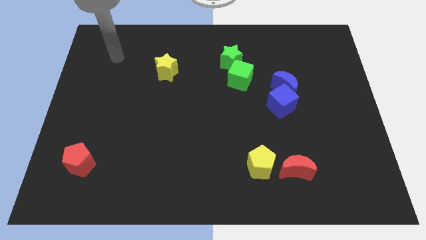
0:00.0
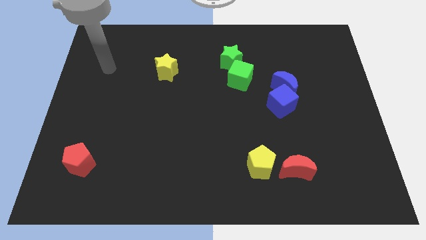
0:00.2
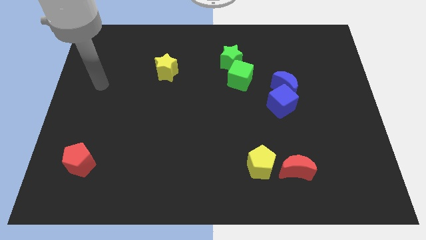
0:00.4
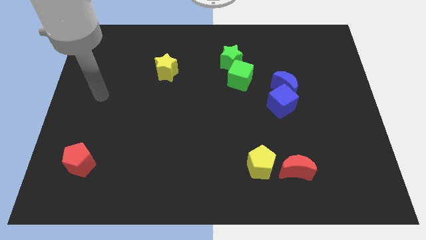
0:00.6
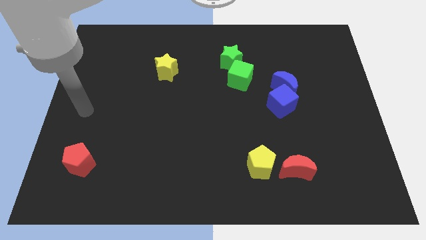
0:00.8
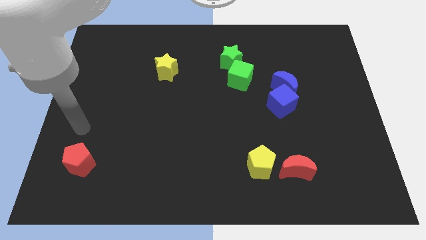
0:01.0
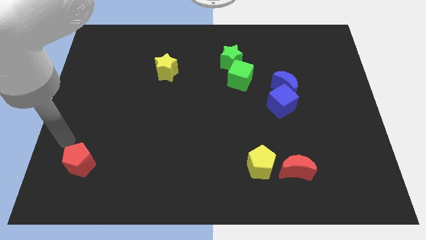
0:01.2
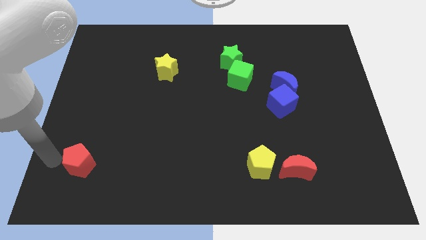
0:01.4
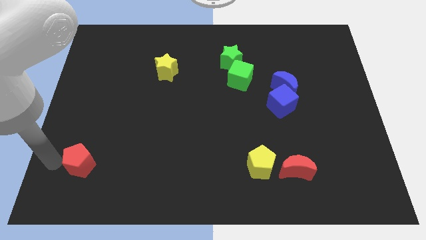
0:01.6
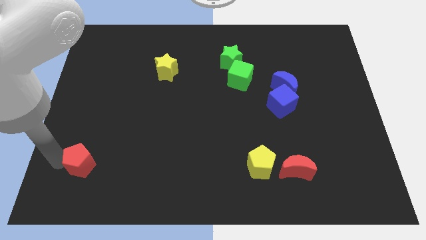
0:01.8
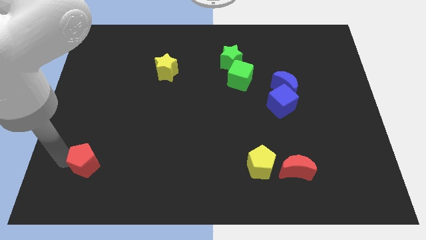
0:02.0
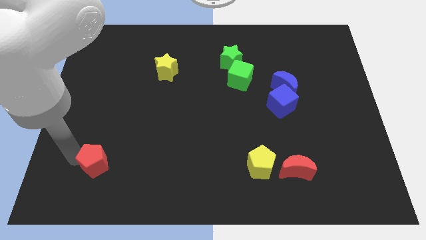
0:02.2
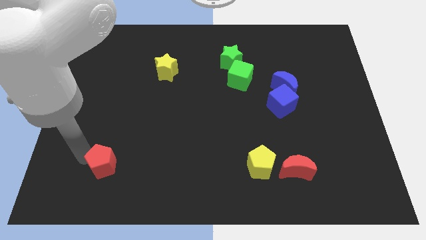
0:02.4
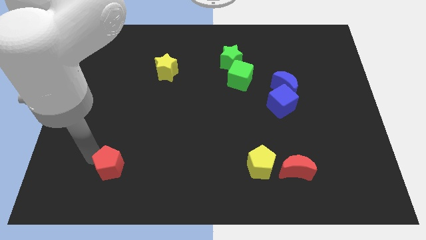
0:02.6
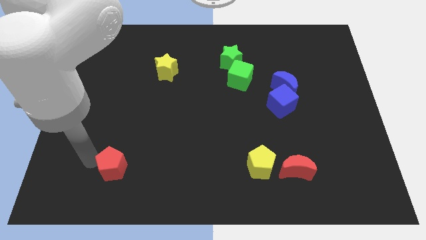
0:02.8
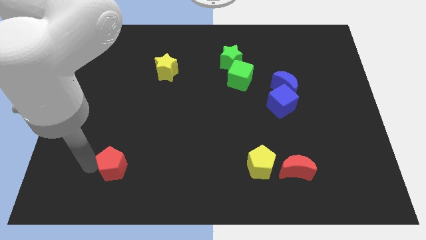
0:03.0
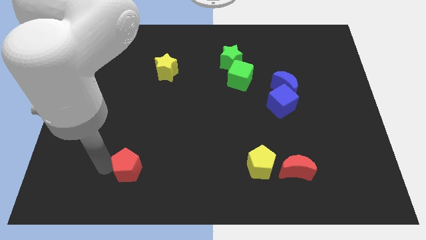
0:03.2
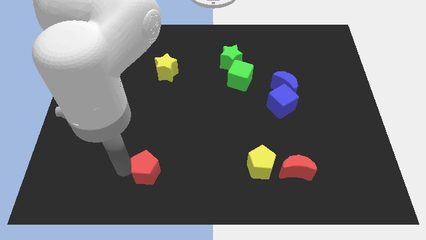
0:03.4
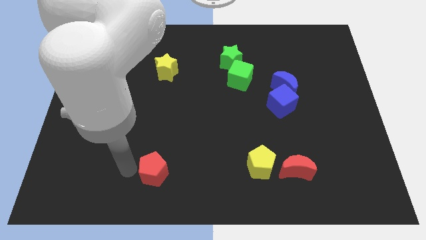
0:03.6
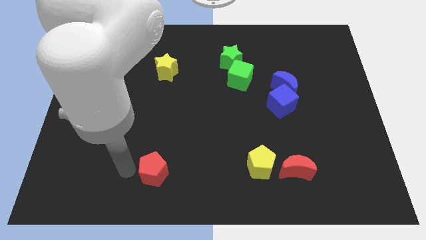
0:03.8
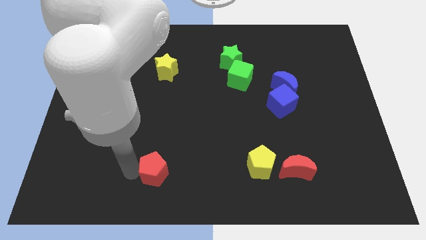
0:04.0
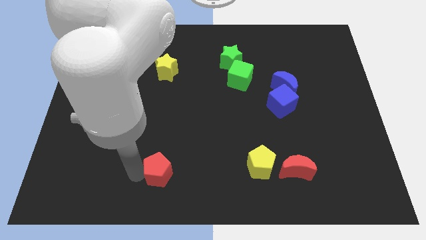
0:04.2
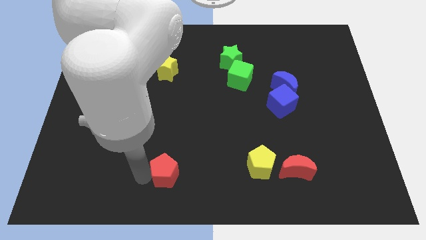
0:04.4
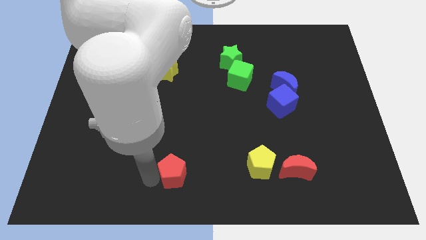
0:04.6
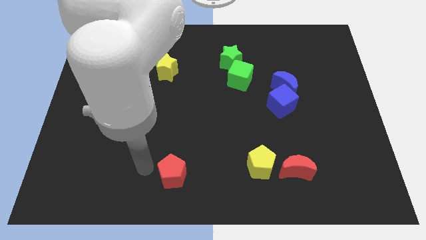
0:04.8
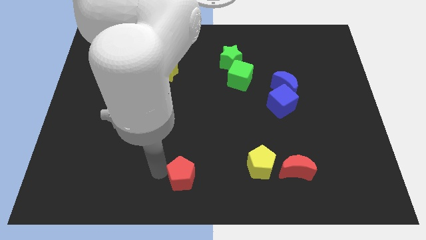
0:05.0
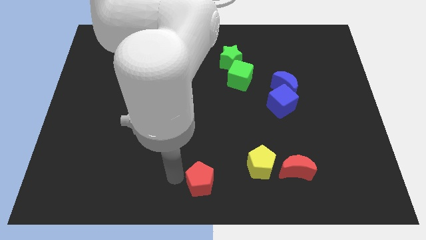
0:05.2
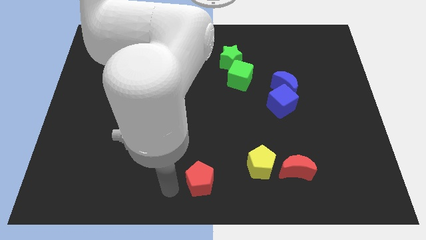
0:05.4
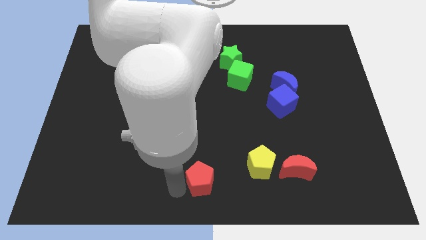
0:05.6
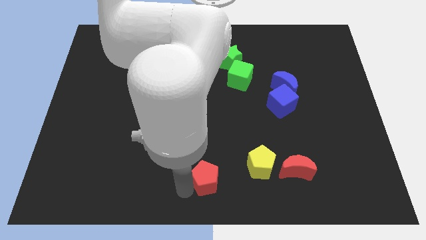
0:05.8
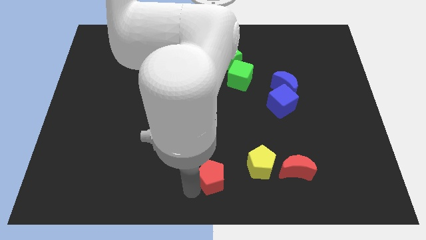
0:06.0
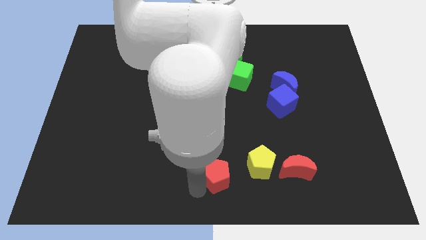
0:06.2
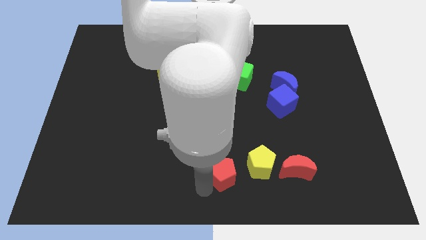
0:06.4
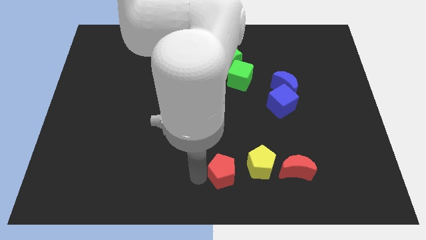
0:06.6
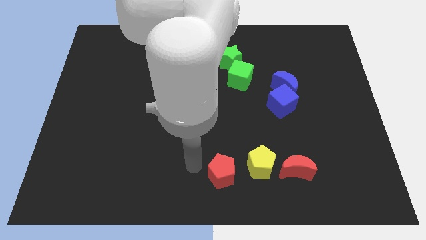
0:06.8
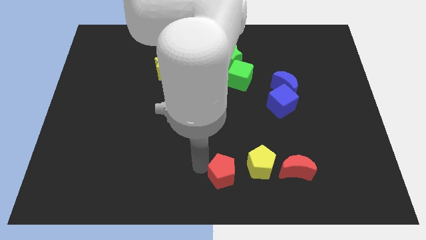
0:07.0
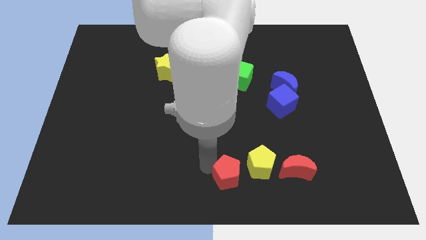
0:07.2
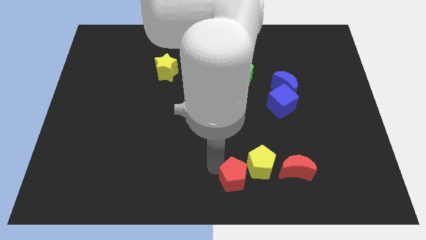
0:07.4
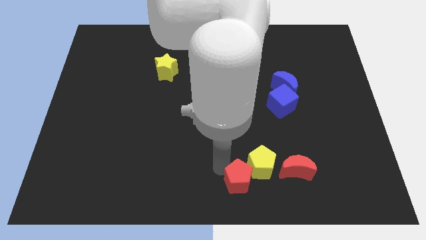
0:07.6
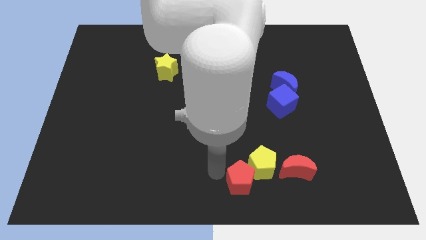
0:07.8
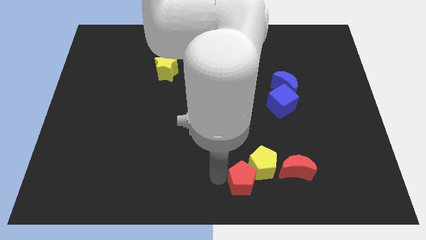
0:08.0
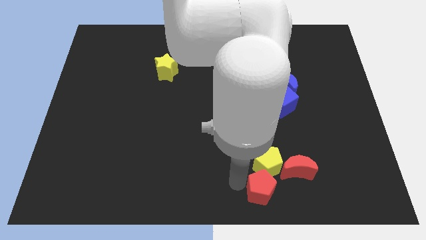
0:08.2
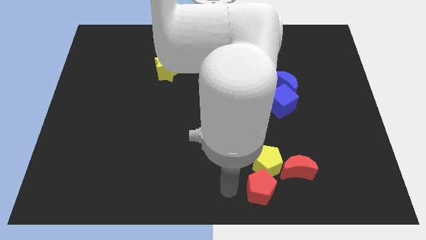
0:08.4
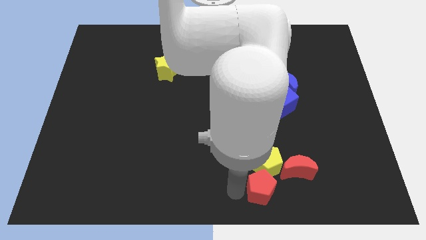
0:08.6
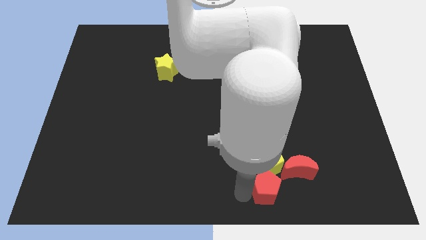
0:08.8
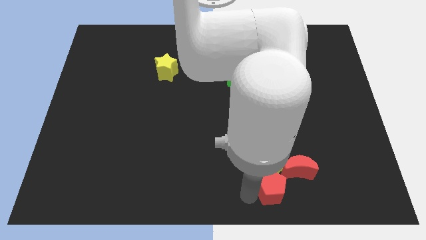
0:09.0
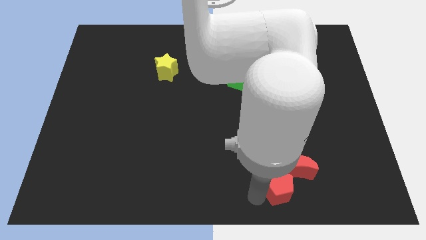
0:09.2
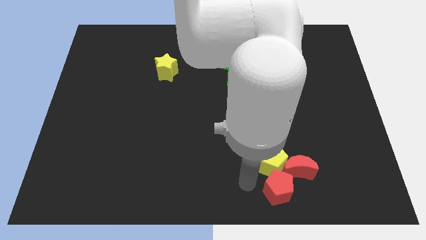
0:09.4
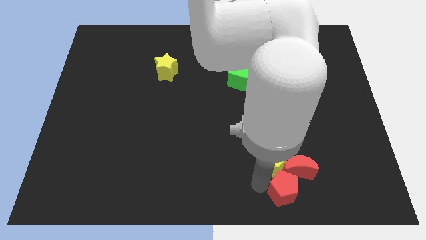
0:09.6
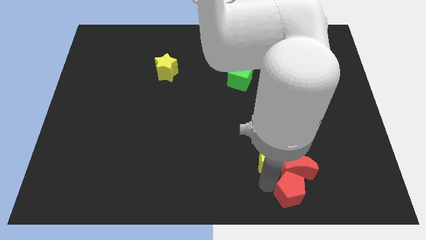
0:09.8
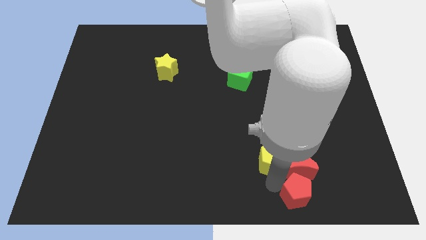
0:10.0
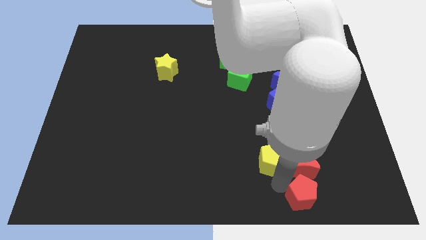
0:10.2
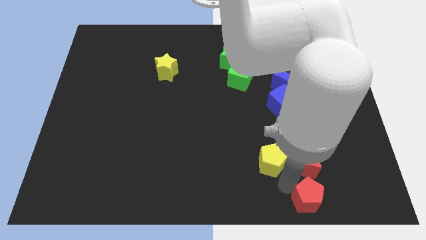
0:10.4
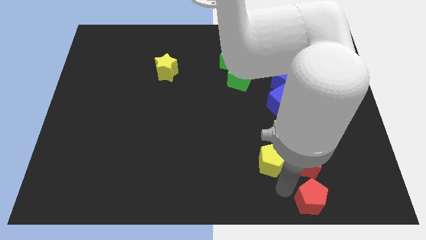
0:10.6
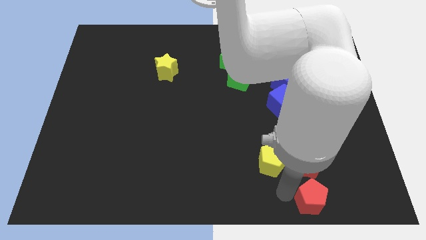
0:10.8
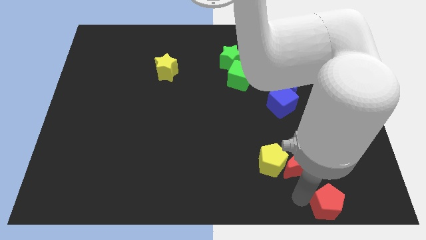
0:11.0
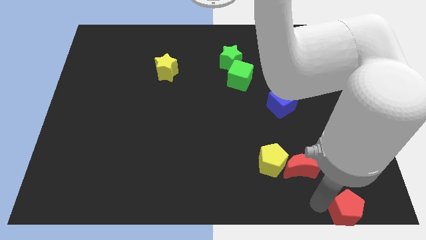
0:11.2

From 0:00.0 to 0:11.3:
put the red pentagon to the bottom right corner
